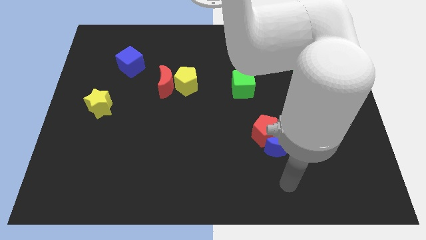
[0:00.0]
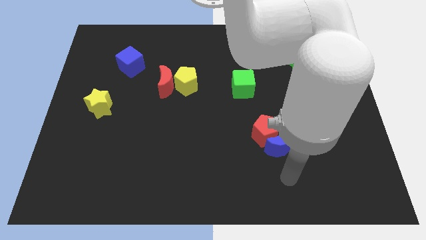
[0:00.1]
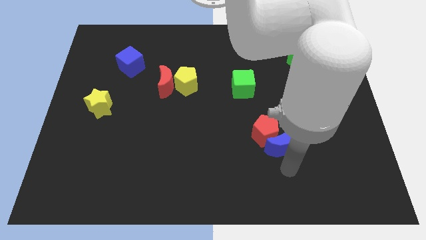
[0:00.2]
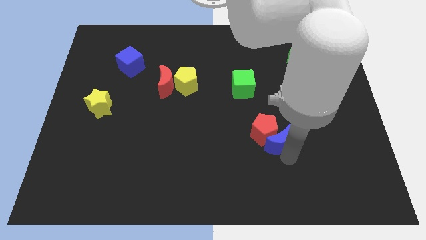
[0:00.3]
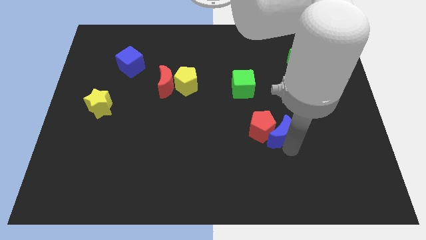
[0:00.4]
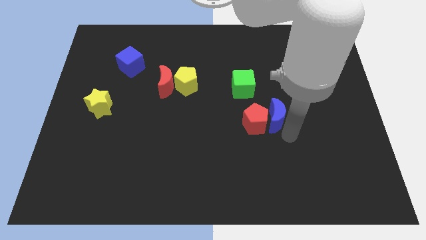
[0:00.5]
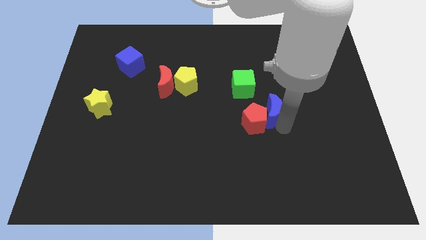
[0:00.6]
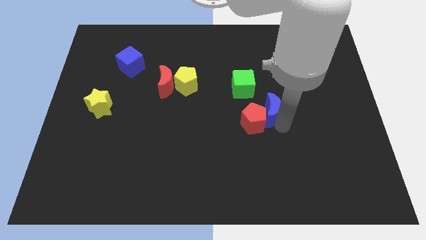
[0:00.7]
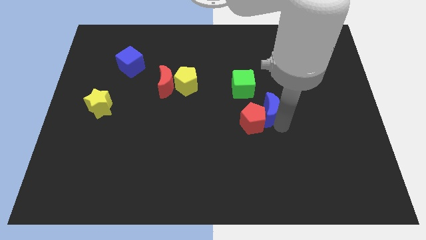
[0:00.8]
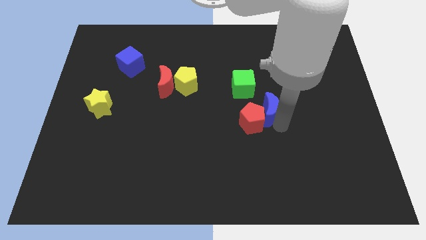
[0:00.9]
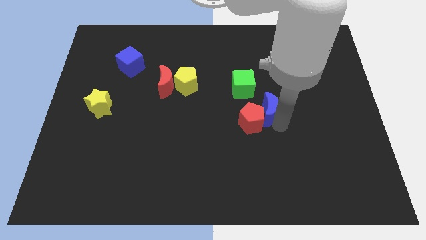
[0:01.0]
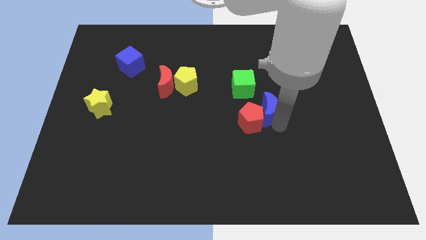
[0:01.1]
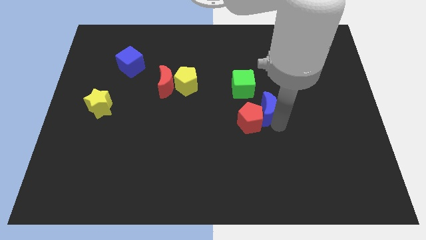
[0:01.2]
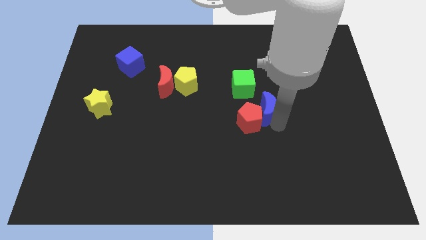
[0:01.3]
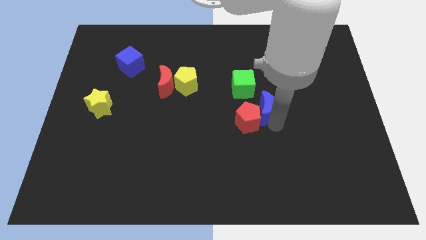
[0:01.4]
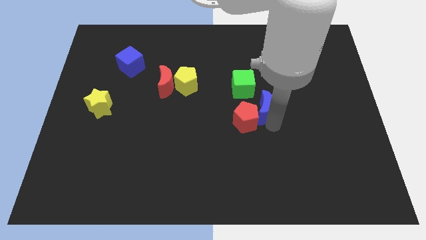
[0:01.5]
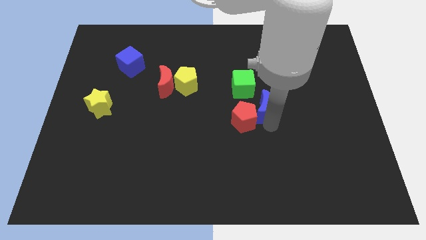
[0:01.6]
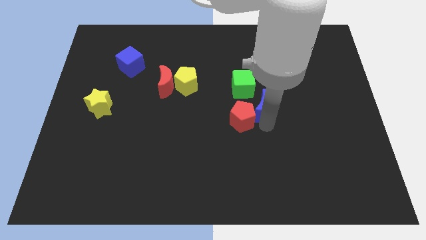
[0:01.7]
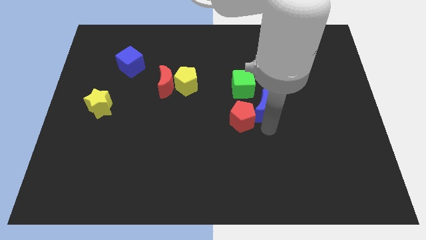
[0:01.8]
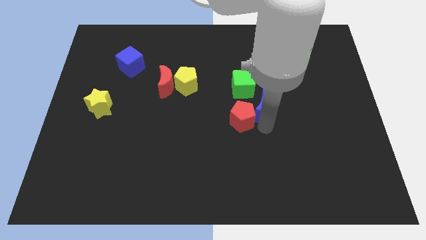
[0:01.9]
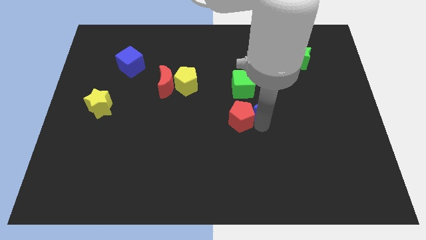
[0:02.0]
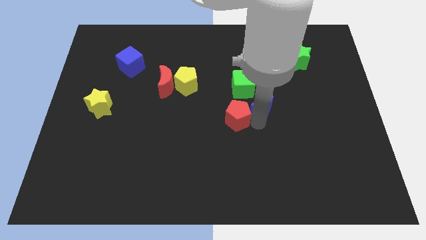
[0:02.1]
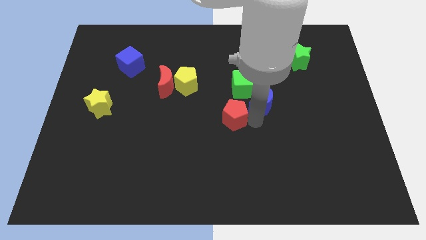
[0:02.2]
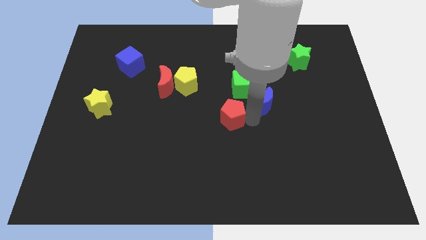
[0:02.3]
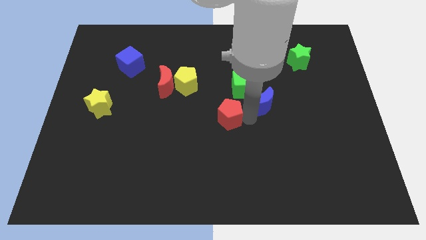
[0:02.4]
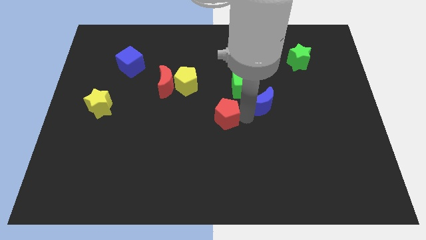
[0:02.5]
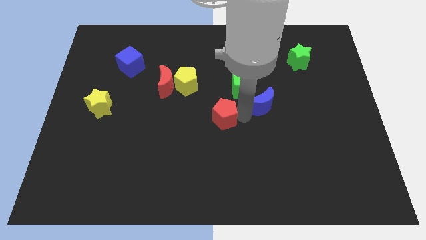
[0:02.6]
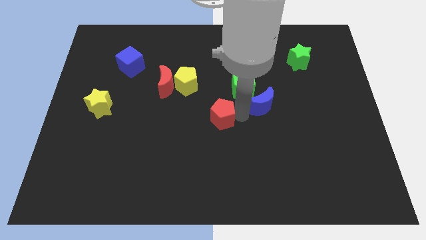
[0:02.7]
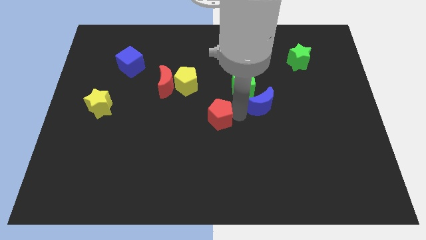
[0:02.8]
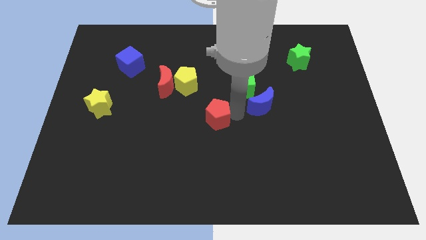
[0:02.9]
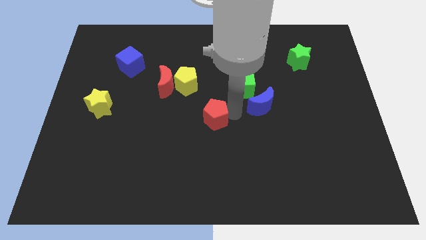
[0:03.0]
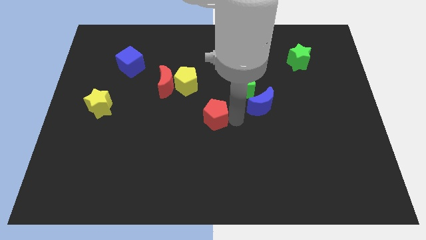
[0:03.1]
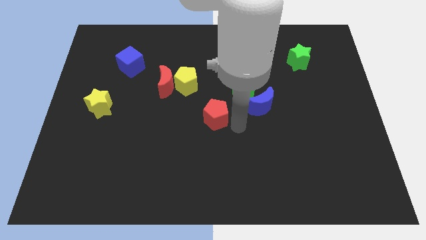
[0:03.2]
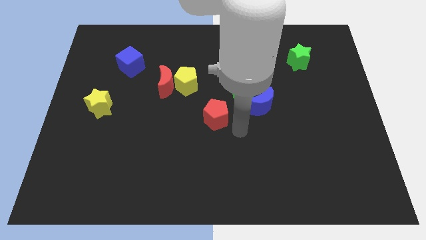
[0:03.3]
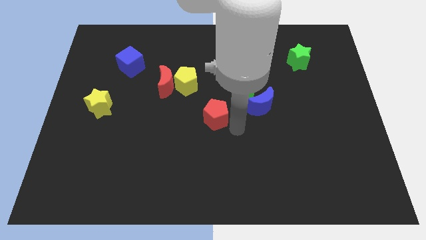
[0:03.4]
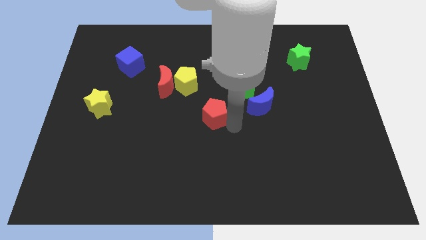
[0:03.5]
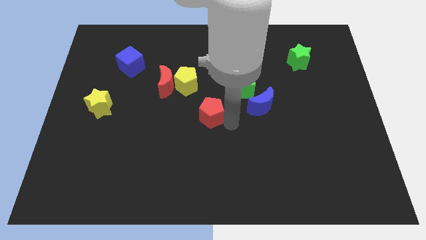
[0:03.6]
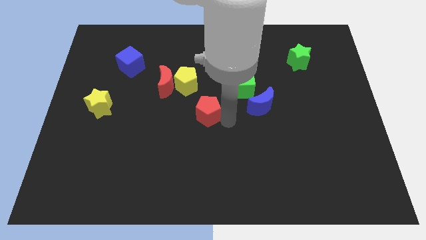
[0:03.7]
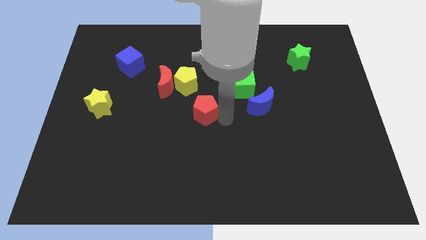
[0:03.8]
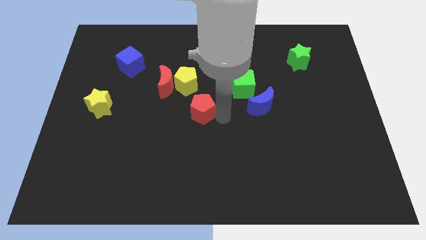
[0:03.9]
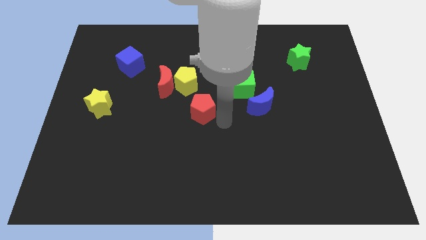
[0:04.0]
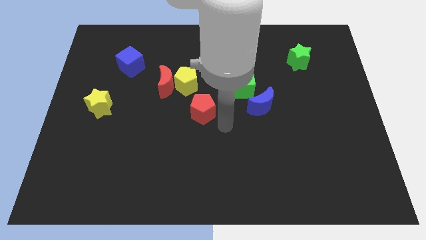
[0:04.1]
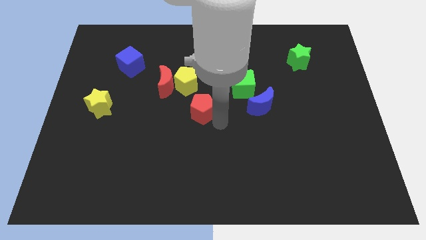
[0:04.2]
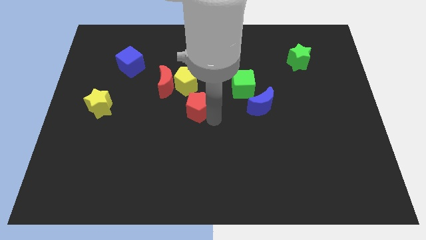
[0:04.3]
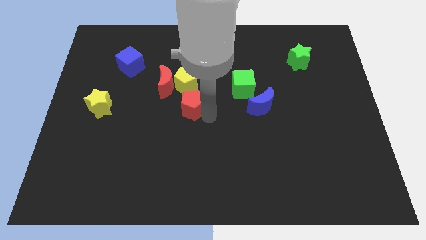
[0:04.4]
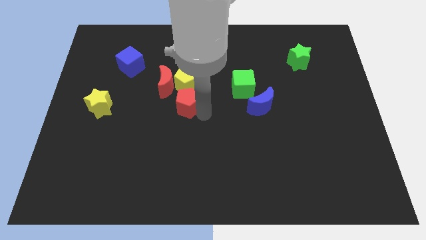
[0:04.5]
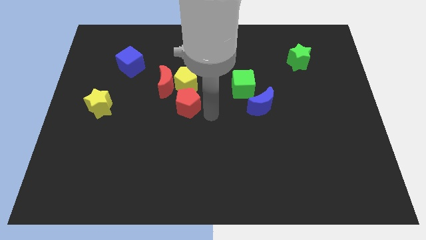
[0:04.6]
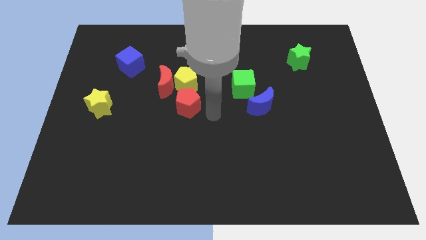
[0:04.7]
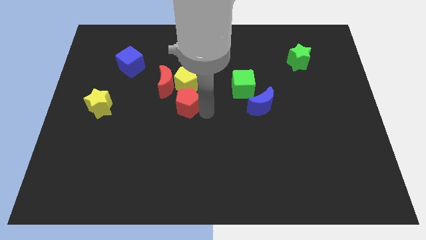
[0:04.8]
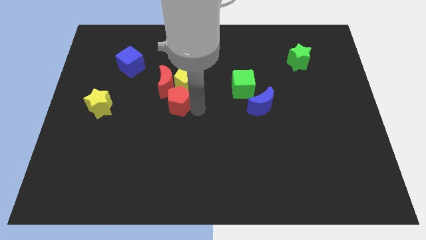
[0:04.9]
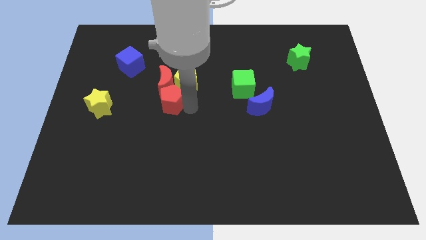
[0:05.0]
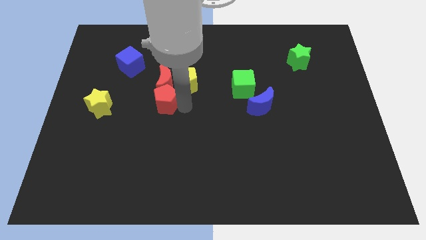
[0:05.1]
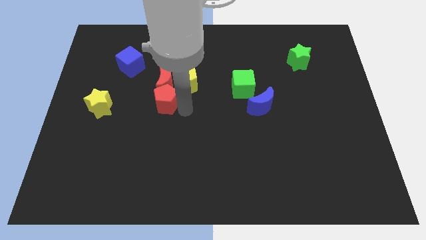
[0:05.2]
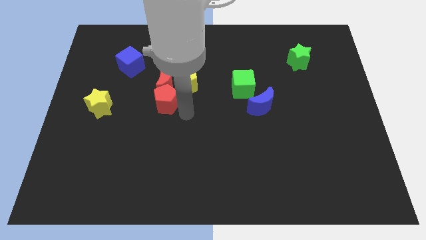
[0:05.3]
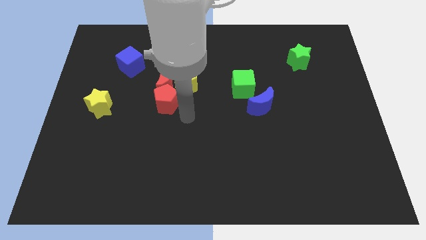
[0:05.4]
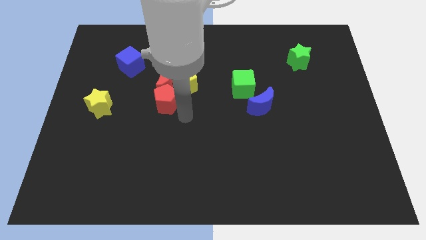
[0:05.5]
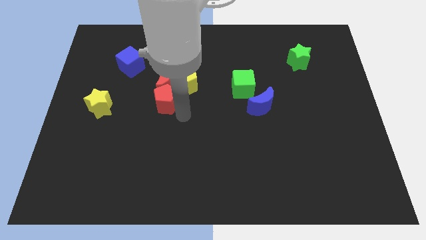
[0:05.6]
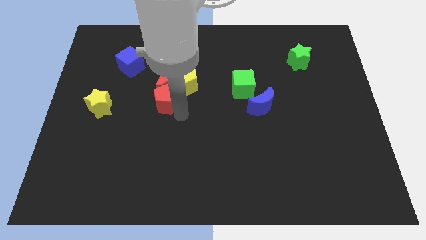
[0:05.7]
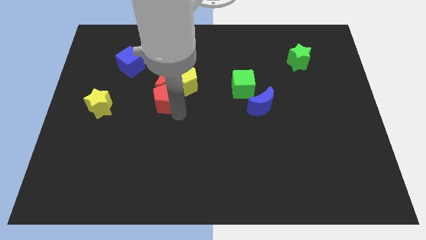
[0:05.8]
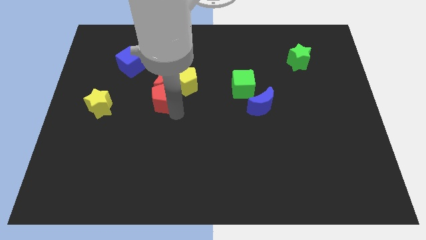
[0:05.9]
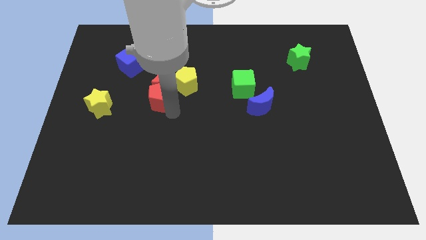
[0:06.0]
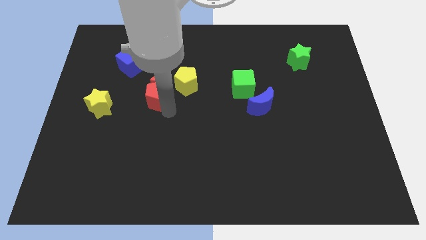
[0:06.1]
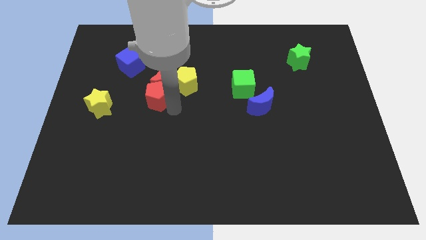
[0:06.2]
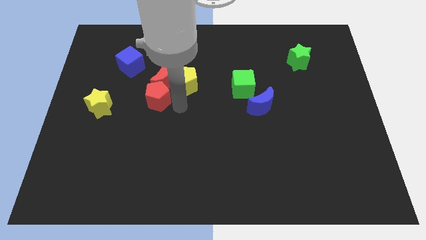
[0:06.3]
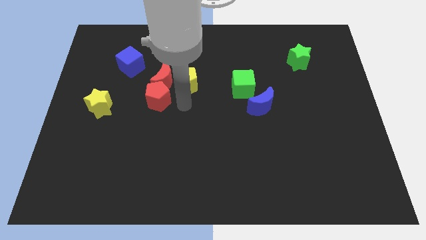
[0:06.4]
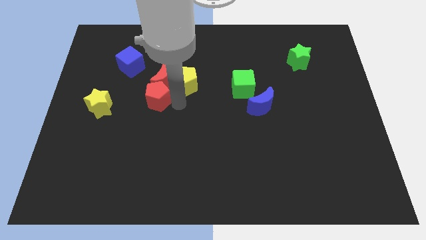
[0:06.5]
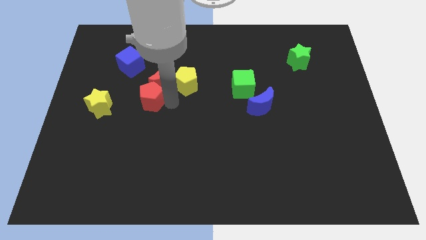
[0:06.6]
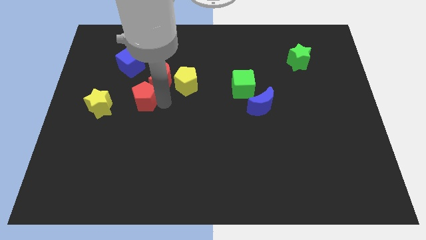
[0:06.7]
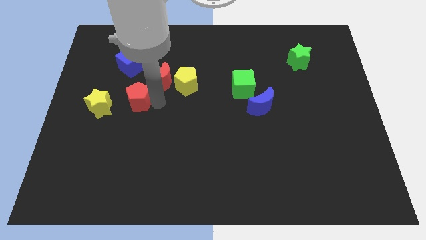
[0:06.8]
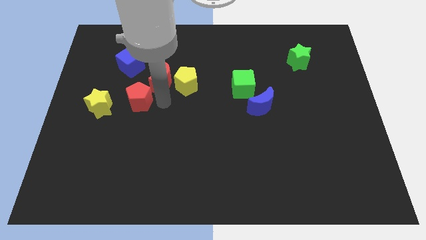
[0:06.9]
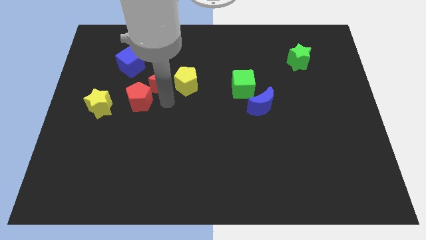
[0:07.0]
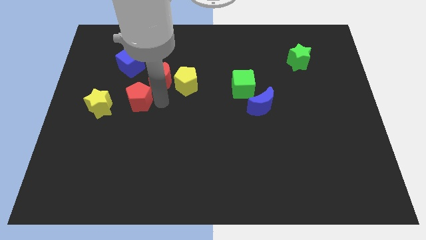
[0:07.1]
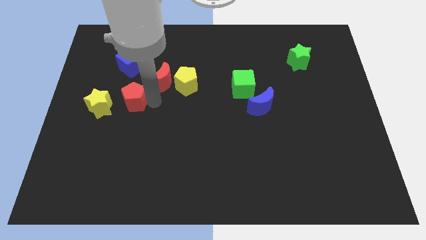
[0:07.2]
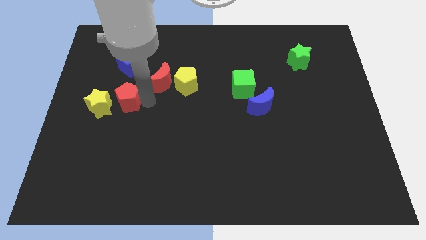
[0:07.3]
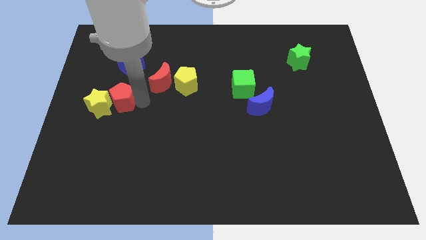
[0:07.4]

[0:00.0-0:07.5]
slide the red pentagon next to the yellow star
